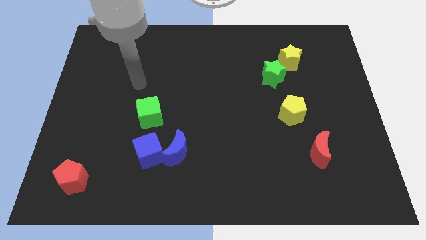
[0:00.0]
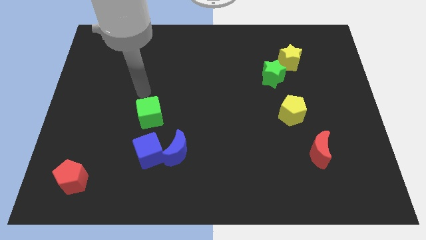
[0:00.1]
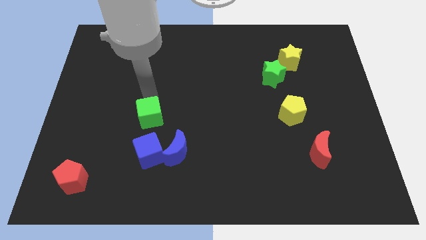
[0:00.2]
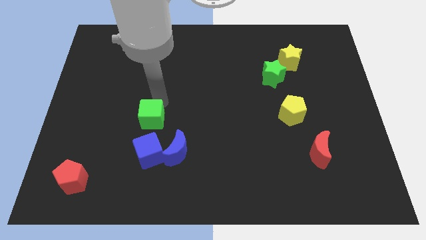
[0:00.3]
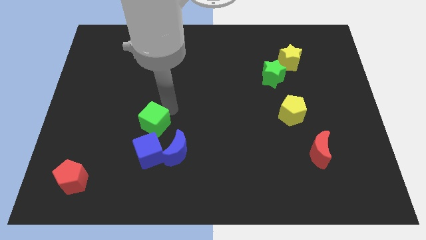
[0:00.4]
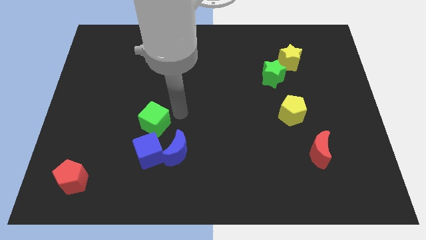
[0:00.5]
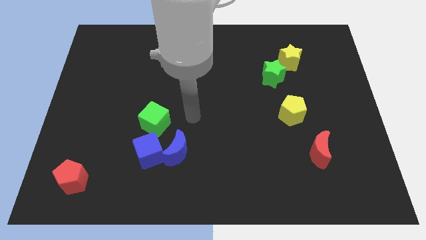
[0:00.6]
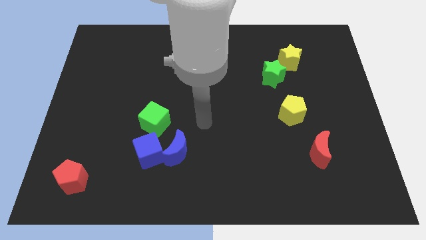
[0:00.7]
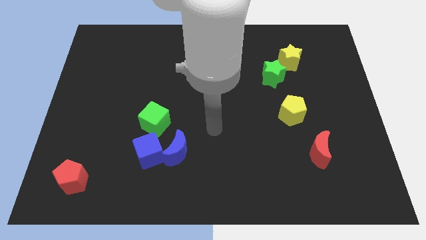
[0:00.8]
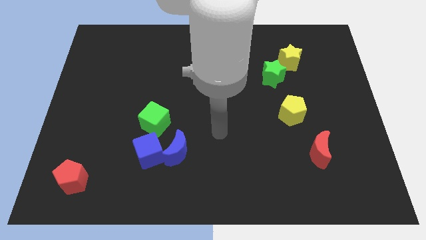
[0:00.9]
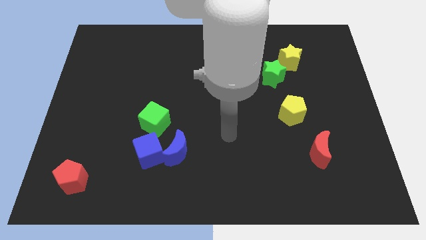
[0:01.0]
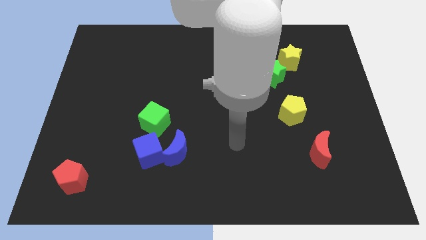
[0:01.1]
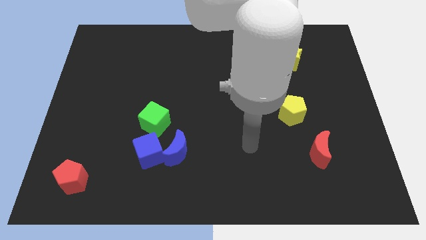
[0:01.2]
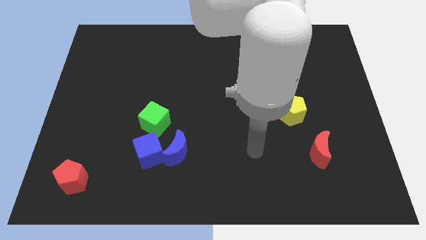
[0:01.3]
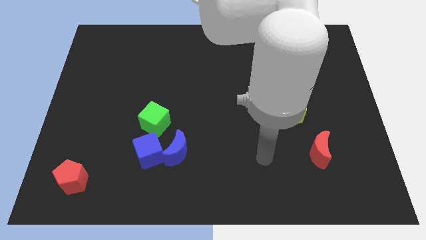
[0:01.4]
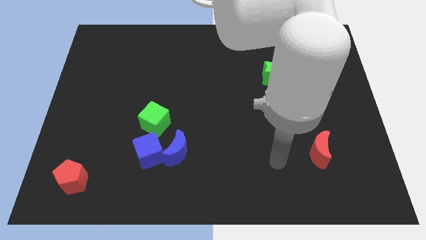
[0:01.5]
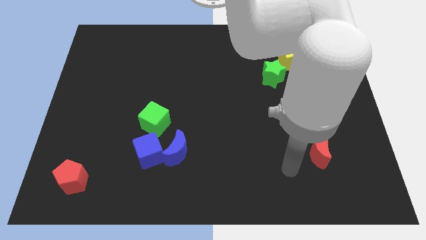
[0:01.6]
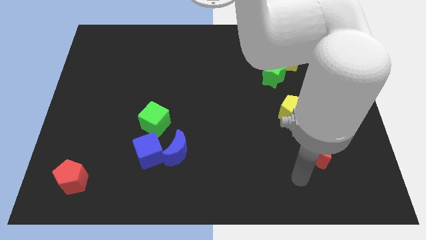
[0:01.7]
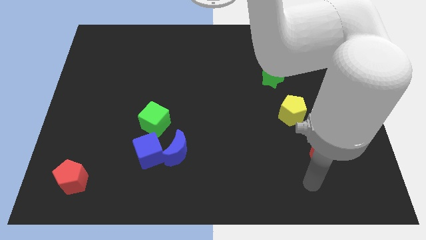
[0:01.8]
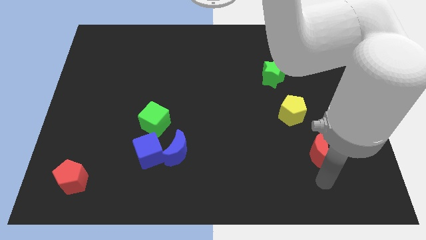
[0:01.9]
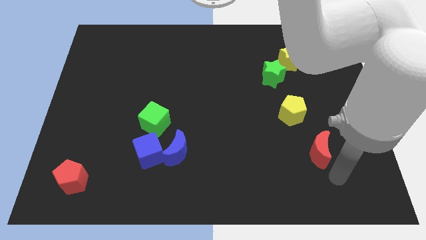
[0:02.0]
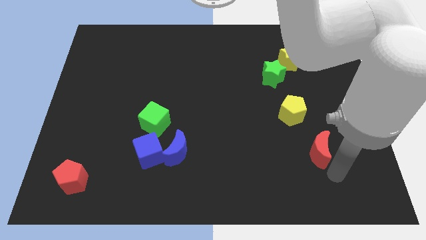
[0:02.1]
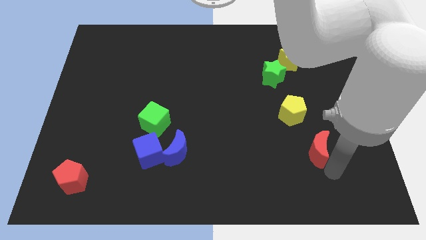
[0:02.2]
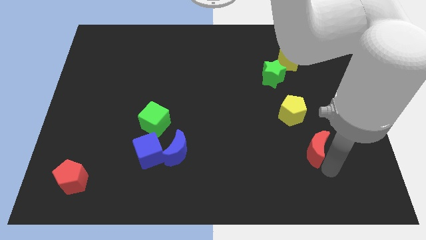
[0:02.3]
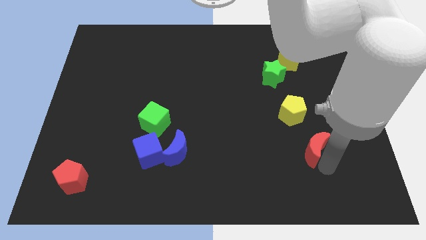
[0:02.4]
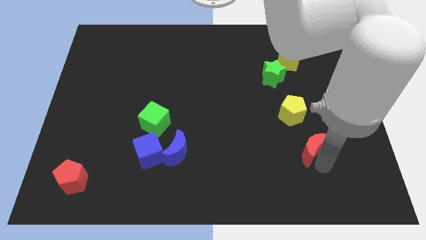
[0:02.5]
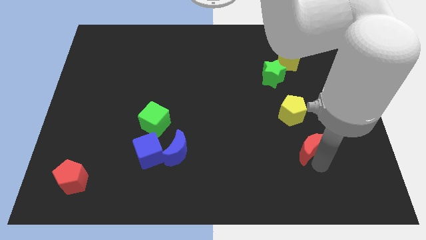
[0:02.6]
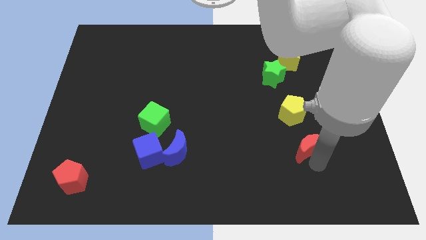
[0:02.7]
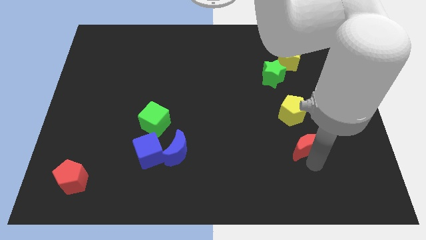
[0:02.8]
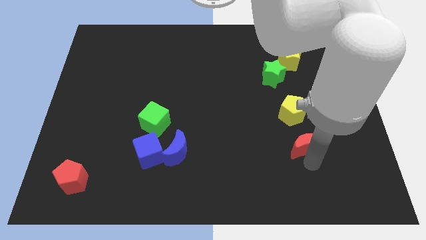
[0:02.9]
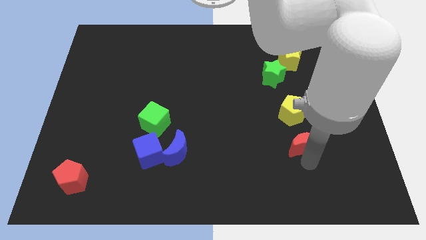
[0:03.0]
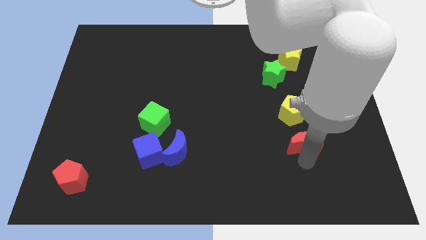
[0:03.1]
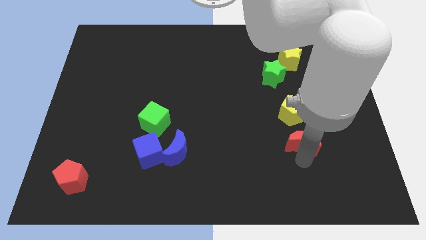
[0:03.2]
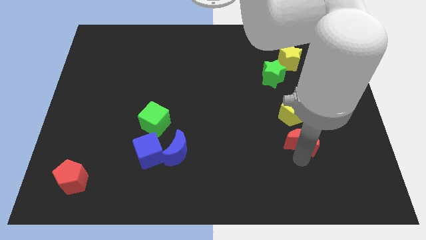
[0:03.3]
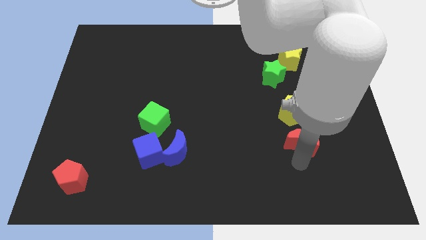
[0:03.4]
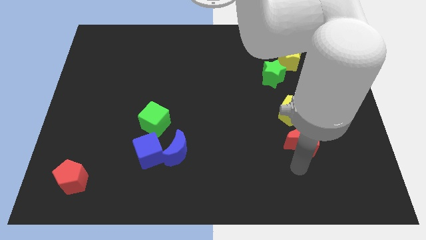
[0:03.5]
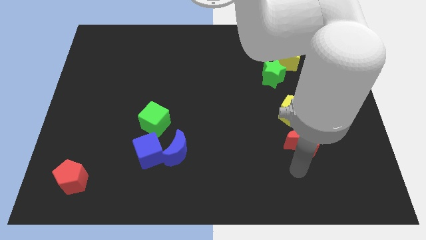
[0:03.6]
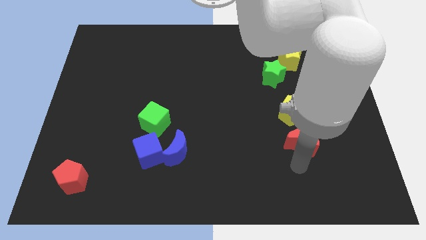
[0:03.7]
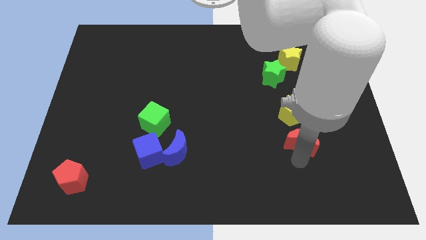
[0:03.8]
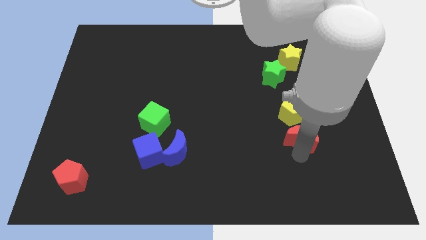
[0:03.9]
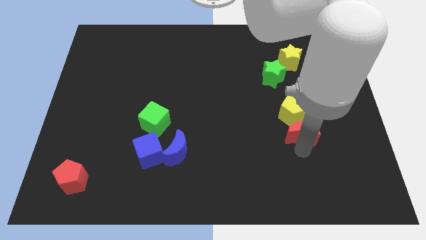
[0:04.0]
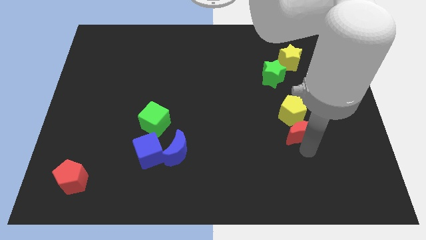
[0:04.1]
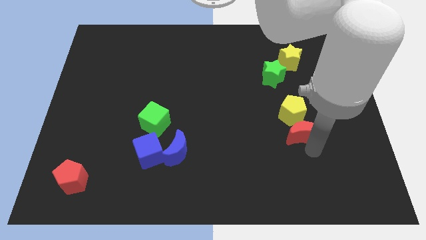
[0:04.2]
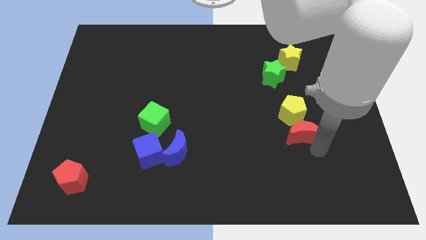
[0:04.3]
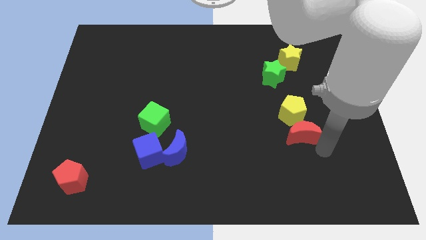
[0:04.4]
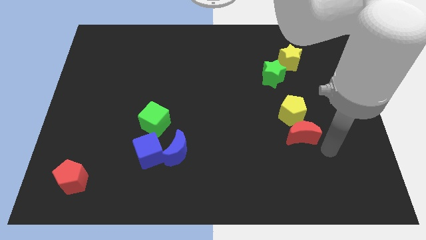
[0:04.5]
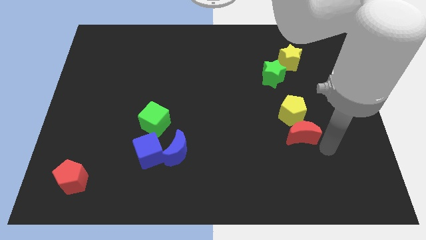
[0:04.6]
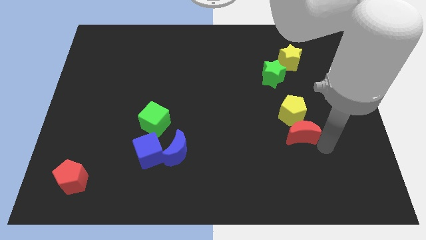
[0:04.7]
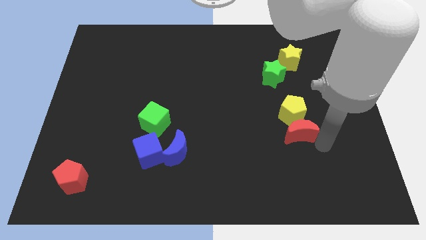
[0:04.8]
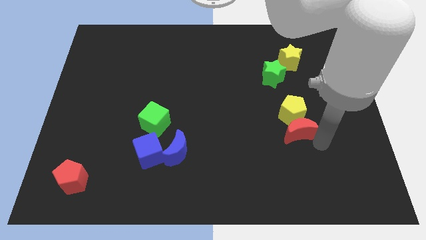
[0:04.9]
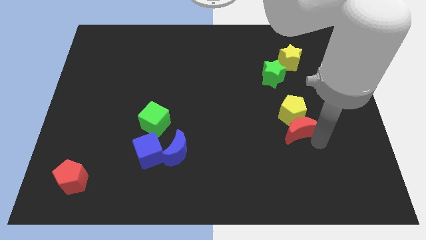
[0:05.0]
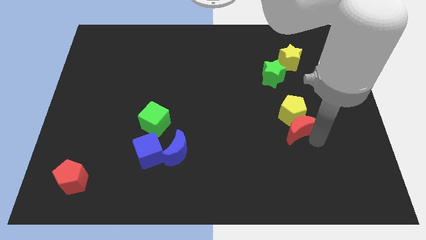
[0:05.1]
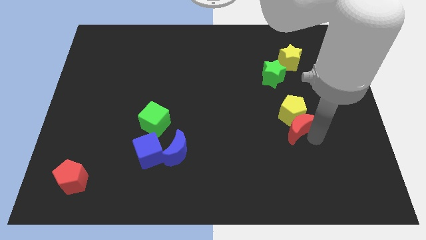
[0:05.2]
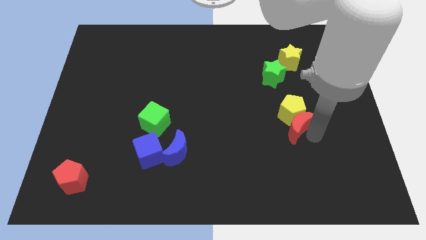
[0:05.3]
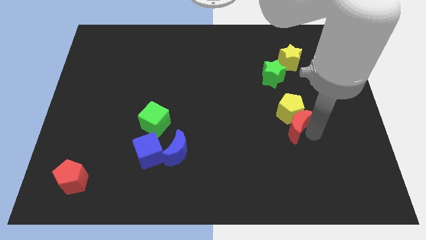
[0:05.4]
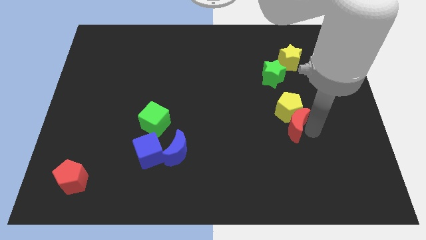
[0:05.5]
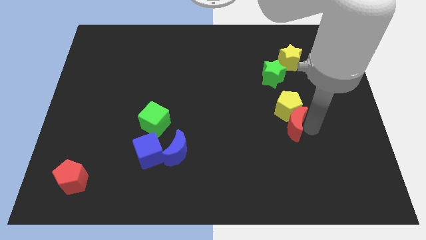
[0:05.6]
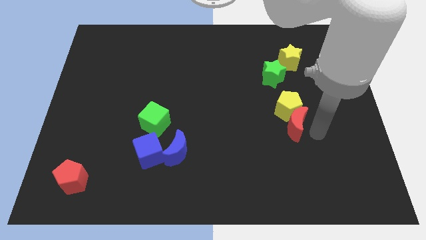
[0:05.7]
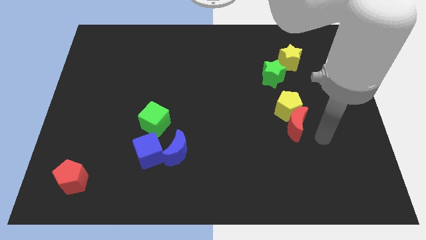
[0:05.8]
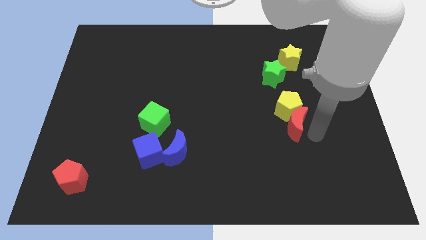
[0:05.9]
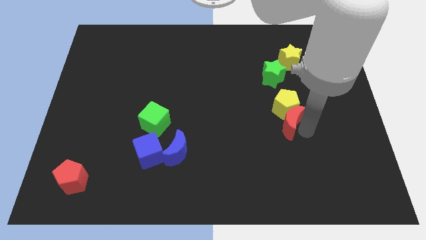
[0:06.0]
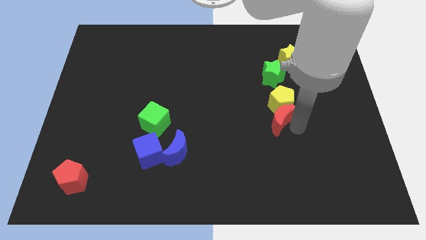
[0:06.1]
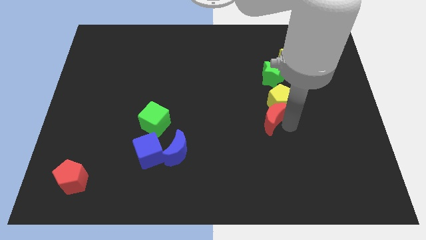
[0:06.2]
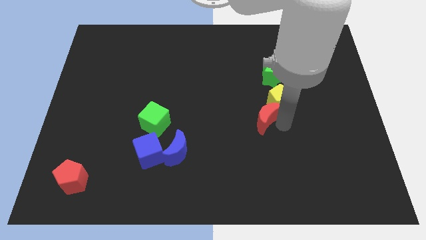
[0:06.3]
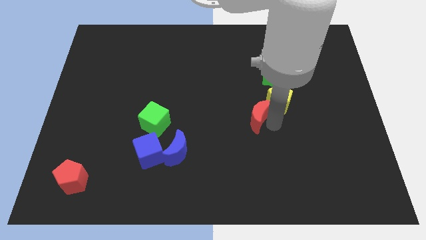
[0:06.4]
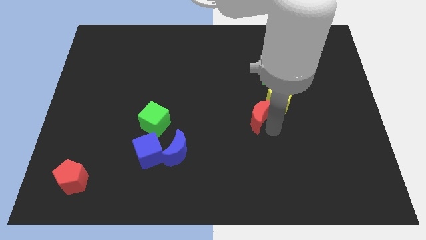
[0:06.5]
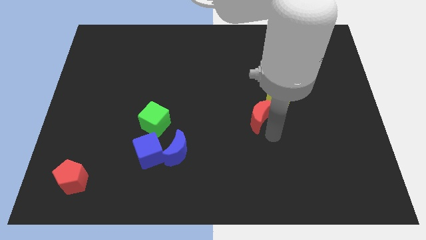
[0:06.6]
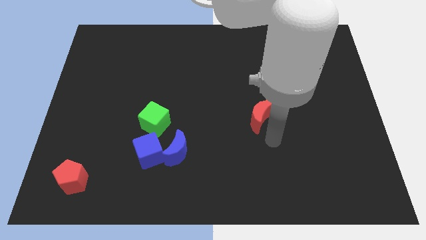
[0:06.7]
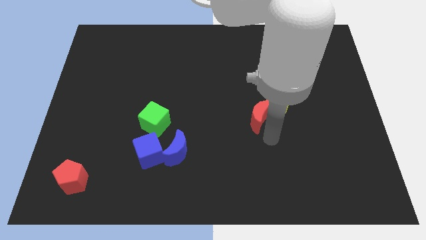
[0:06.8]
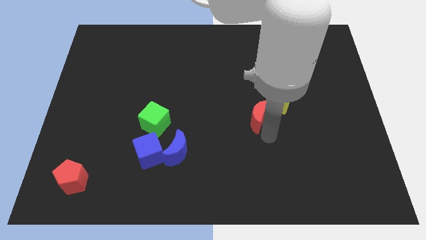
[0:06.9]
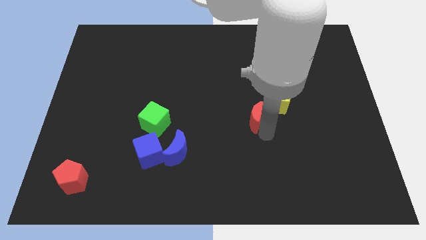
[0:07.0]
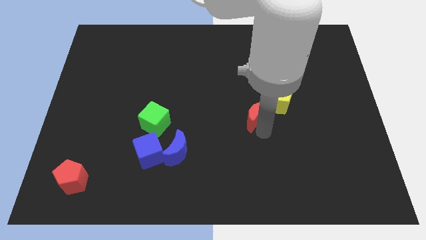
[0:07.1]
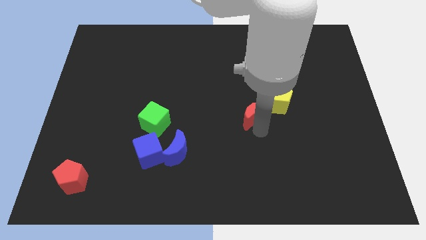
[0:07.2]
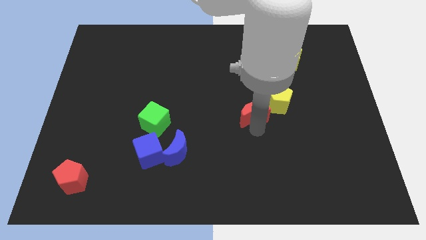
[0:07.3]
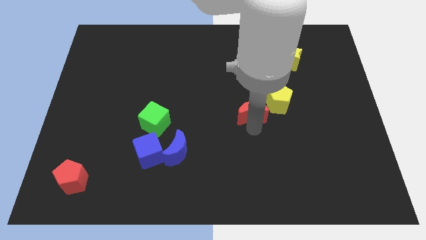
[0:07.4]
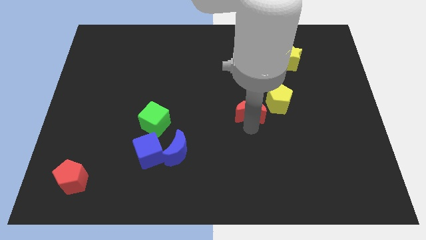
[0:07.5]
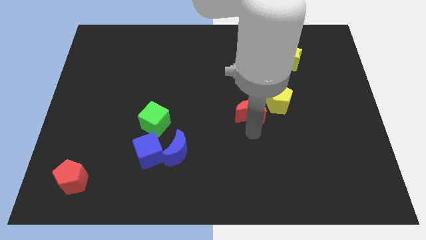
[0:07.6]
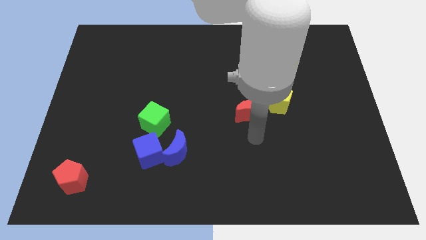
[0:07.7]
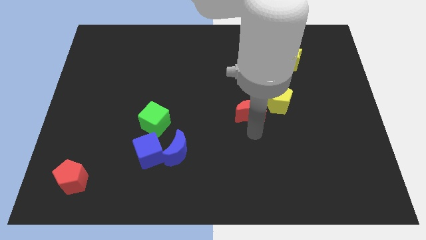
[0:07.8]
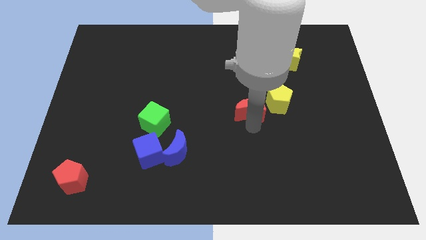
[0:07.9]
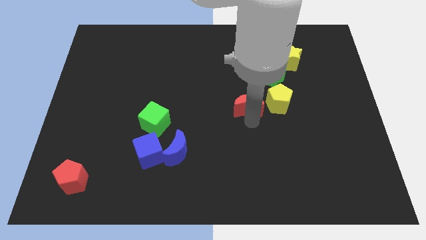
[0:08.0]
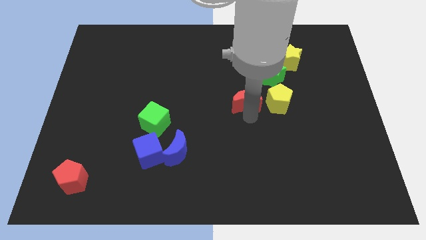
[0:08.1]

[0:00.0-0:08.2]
slide the red moon up and left
